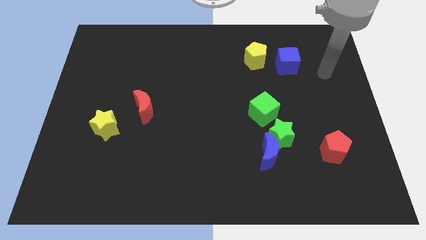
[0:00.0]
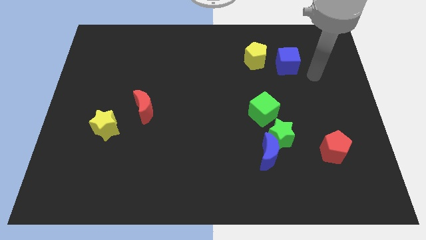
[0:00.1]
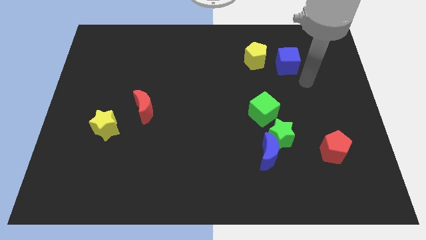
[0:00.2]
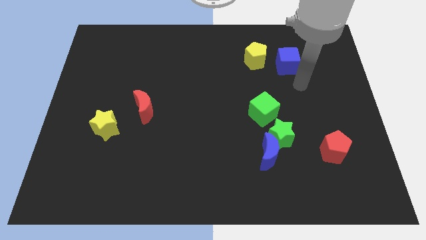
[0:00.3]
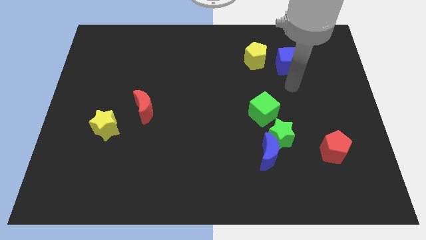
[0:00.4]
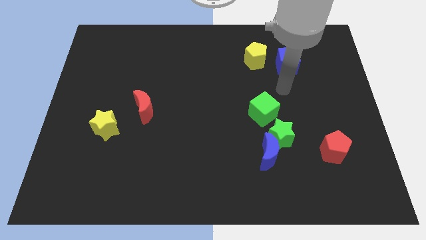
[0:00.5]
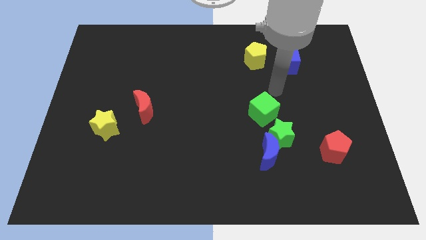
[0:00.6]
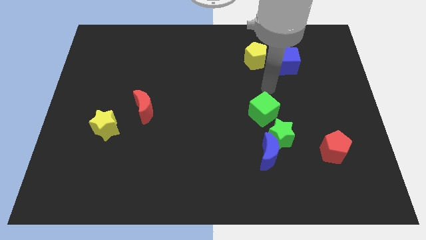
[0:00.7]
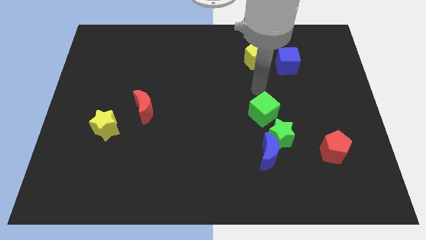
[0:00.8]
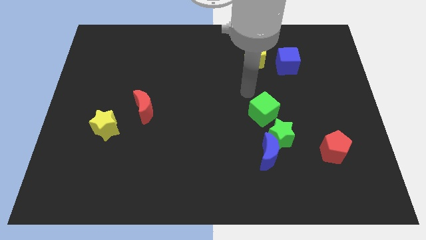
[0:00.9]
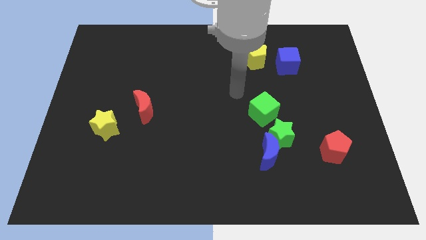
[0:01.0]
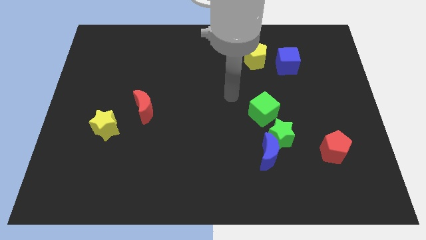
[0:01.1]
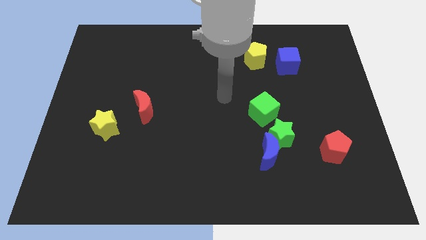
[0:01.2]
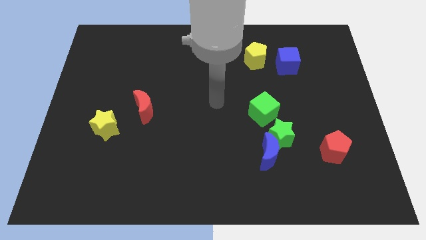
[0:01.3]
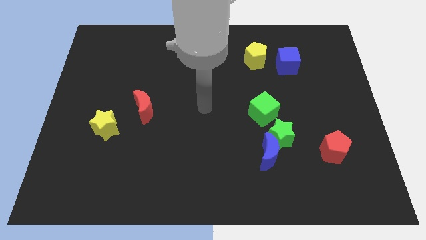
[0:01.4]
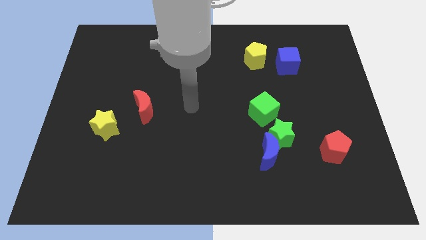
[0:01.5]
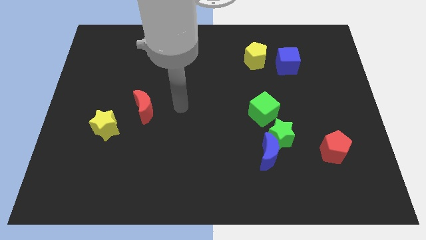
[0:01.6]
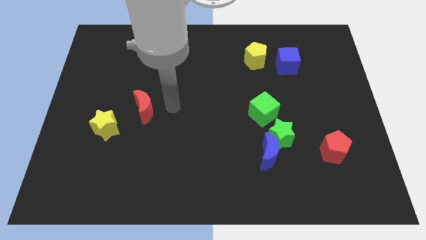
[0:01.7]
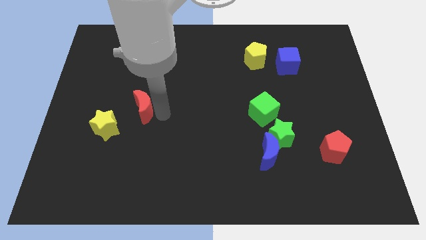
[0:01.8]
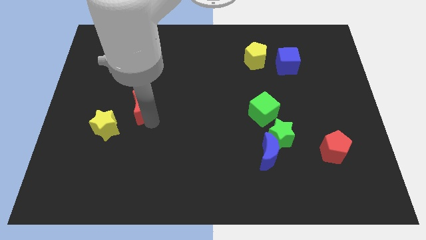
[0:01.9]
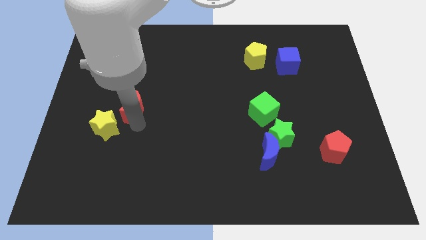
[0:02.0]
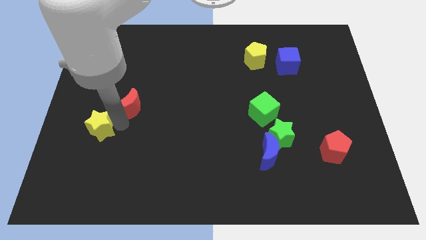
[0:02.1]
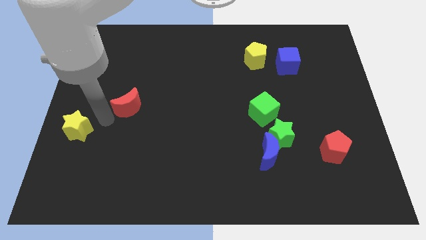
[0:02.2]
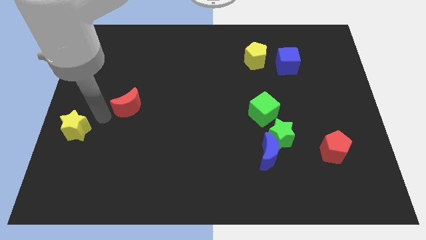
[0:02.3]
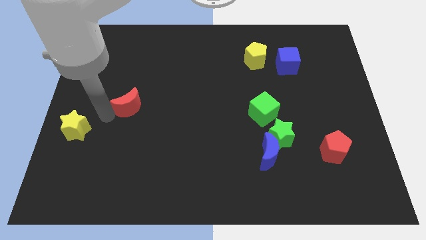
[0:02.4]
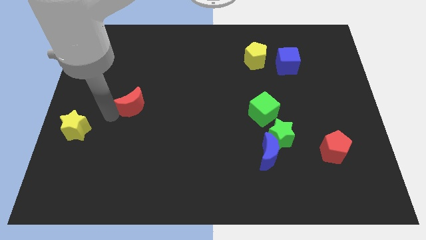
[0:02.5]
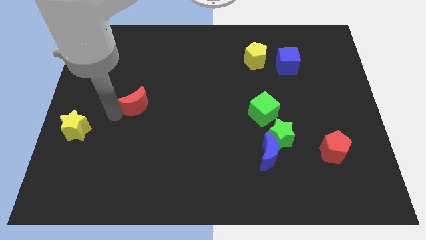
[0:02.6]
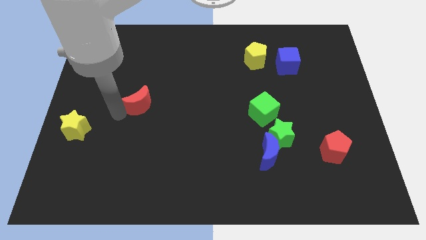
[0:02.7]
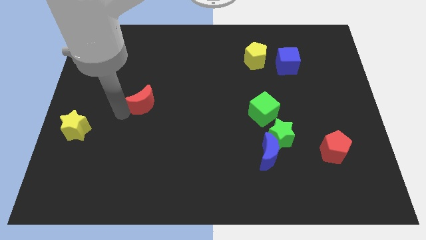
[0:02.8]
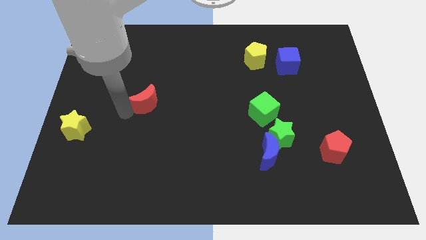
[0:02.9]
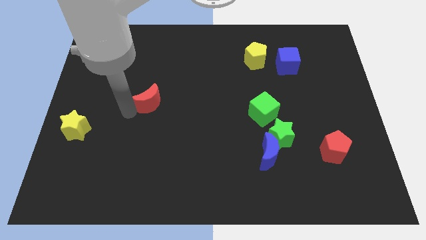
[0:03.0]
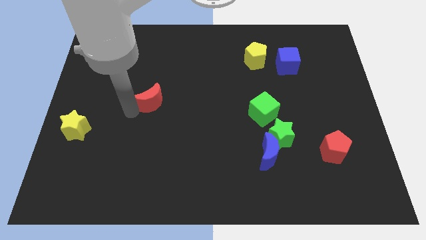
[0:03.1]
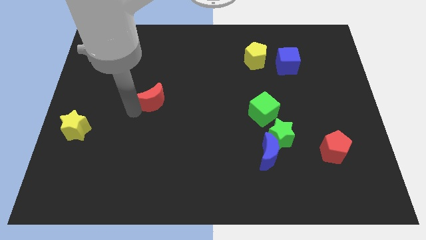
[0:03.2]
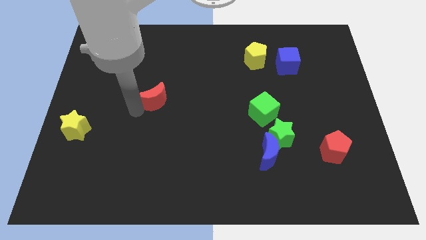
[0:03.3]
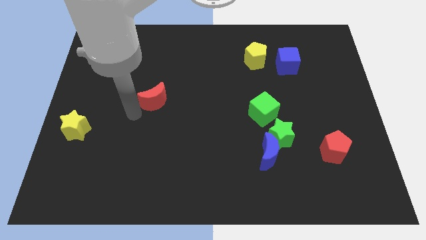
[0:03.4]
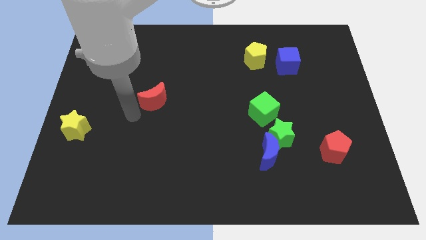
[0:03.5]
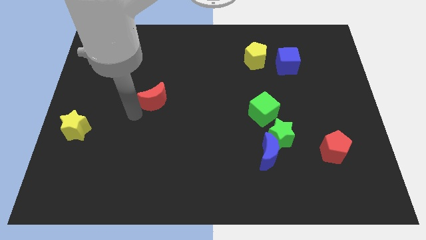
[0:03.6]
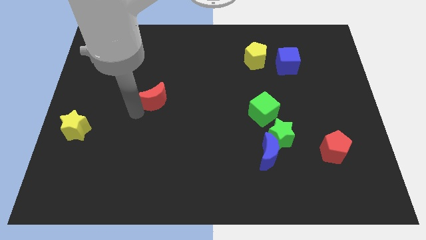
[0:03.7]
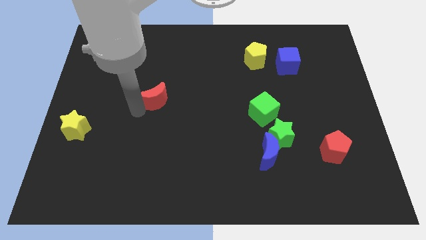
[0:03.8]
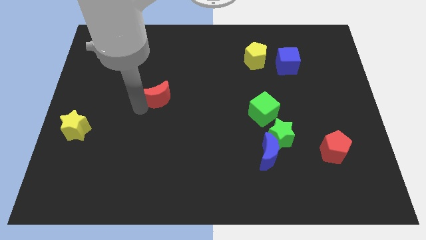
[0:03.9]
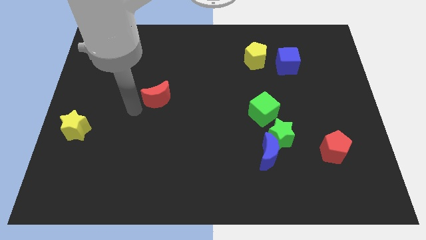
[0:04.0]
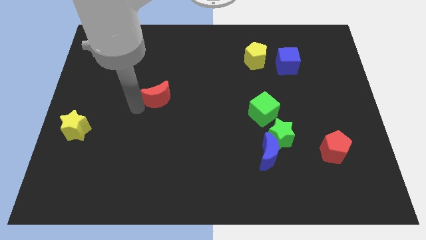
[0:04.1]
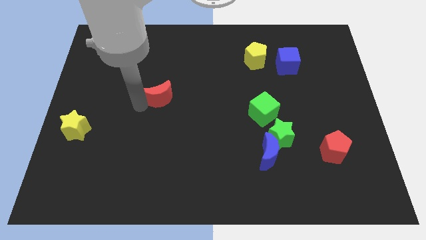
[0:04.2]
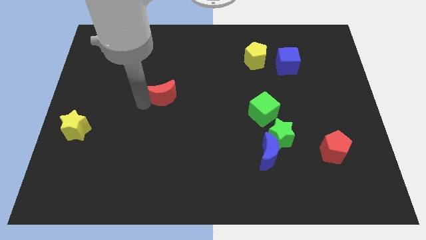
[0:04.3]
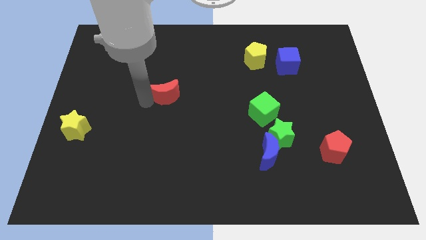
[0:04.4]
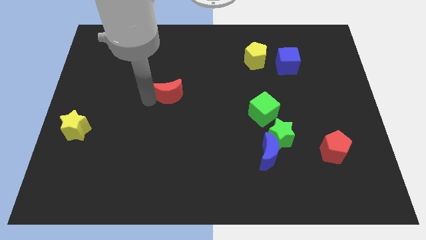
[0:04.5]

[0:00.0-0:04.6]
push the red moon slightly up and then right

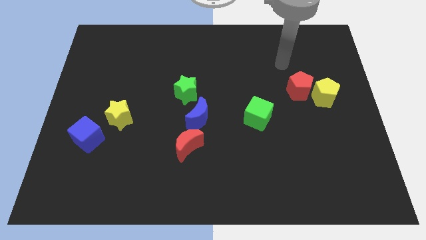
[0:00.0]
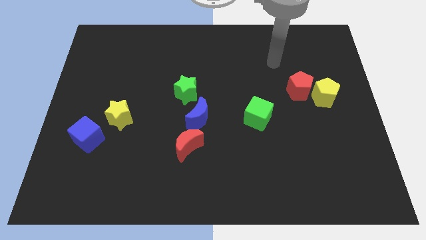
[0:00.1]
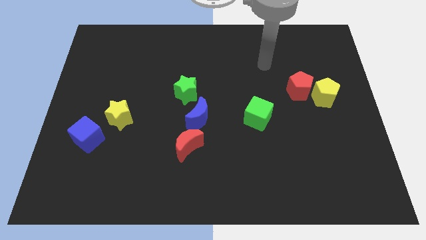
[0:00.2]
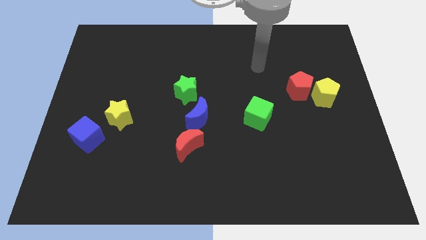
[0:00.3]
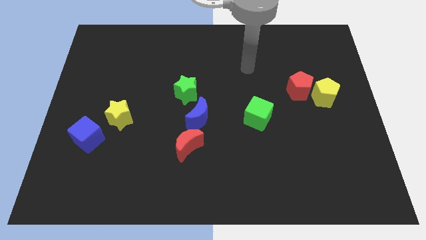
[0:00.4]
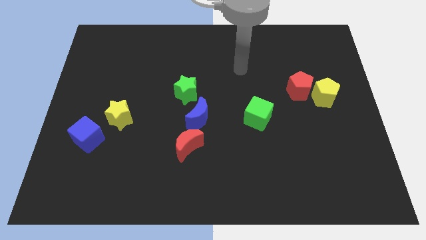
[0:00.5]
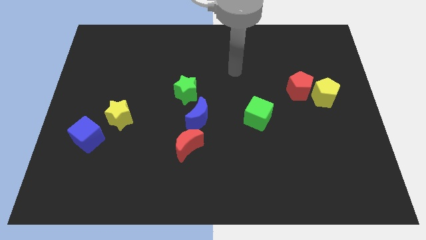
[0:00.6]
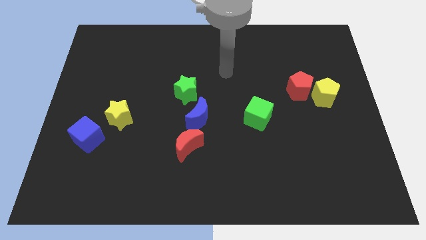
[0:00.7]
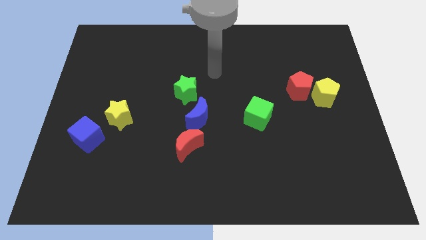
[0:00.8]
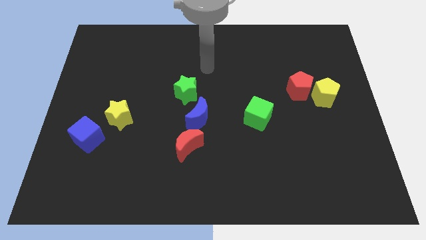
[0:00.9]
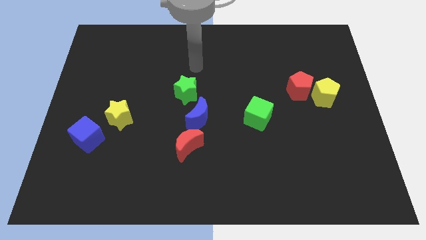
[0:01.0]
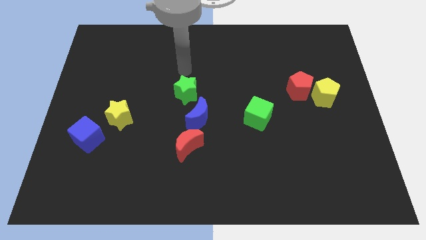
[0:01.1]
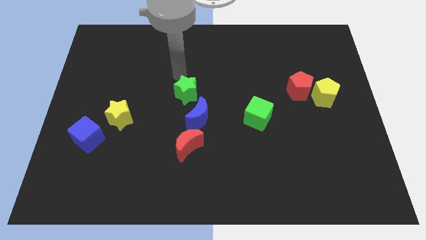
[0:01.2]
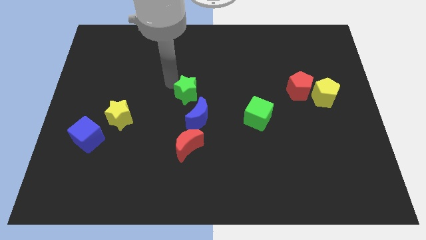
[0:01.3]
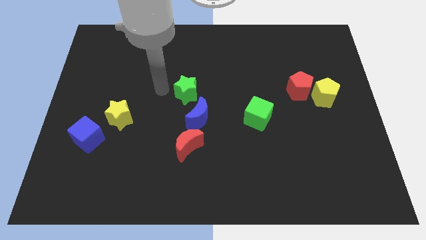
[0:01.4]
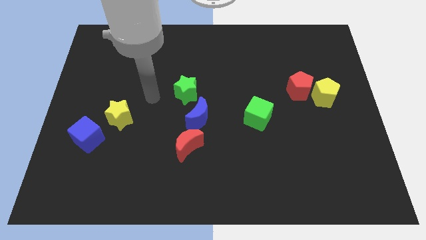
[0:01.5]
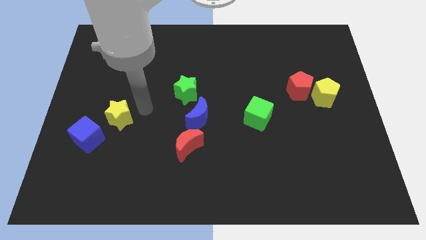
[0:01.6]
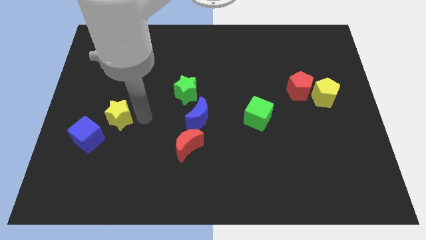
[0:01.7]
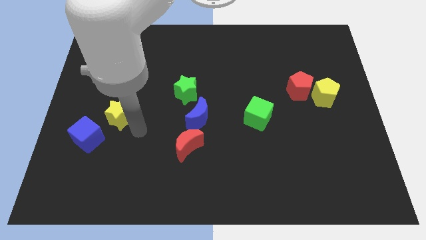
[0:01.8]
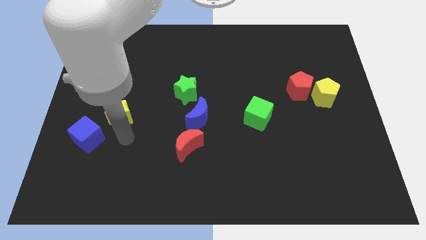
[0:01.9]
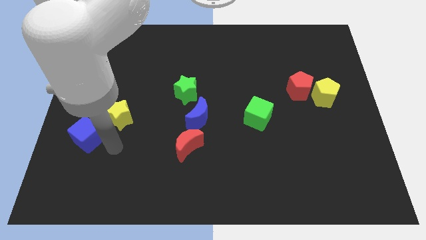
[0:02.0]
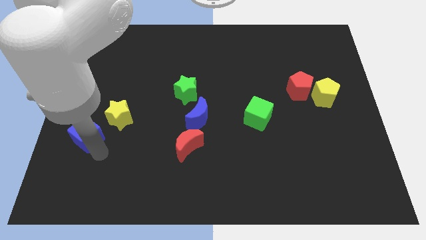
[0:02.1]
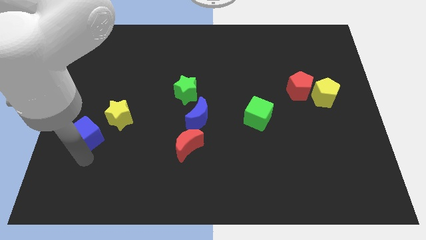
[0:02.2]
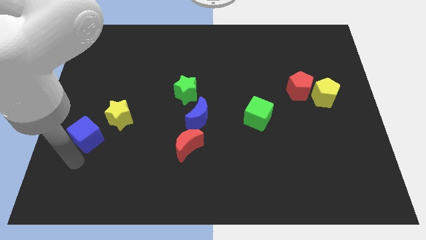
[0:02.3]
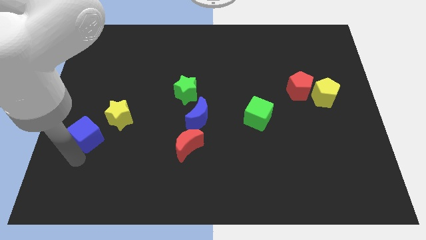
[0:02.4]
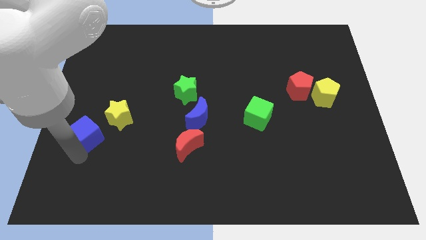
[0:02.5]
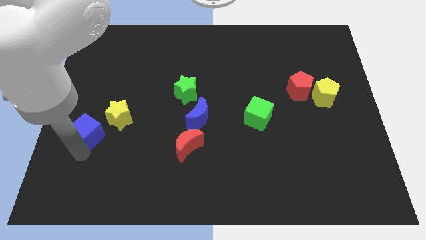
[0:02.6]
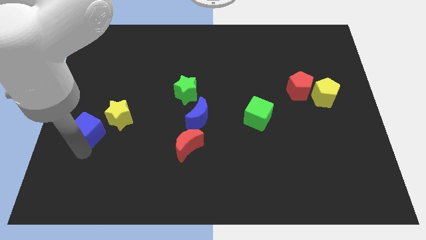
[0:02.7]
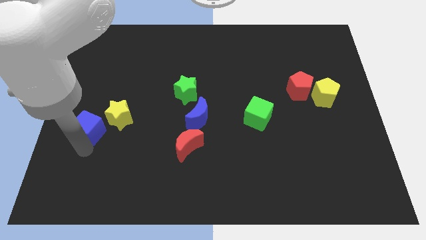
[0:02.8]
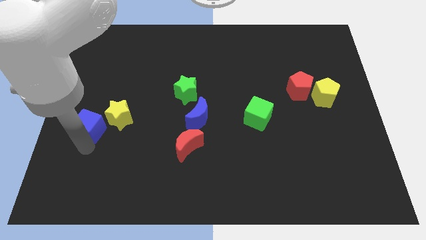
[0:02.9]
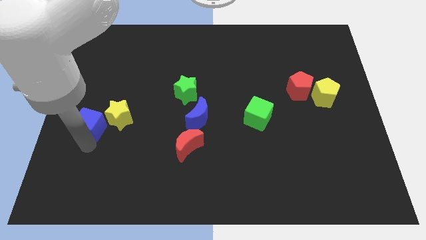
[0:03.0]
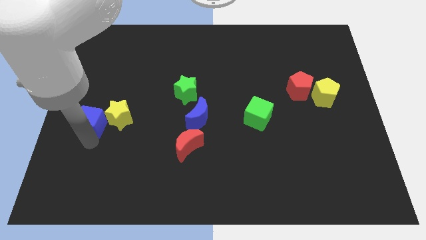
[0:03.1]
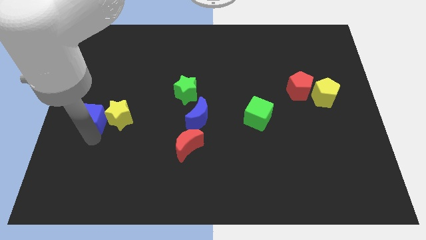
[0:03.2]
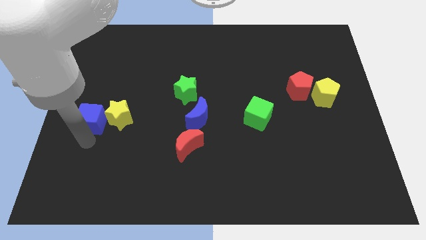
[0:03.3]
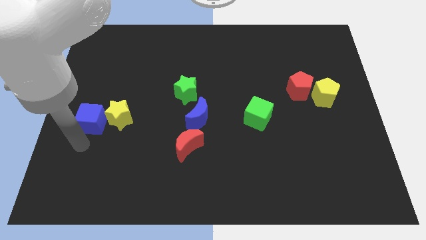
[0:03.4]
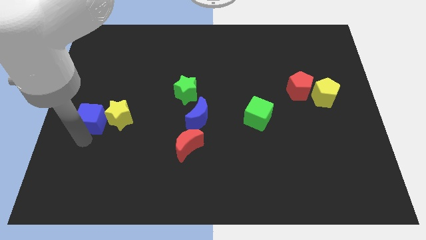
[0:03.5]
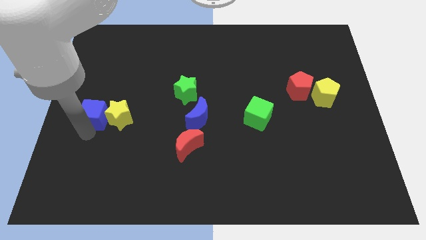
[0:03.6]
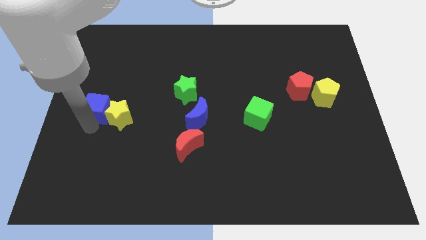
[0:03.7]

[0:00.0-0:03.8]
move the blue cube upwards somewhat
